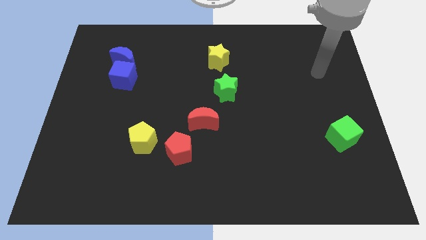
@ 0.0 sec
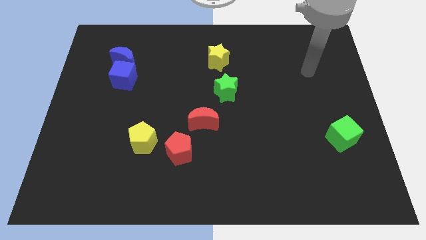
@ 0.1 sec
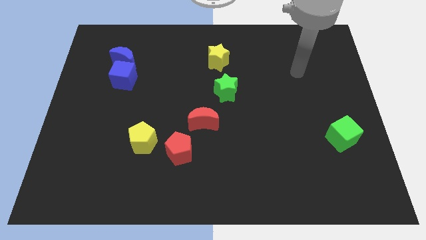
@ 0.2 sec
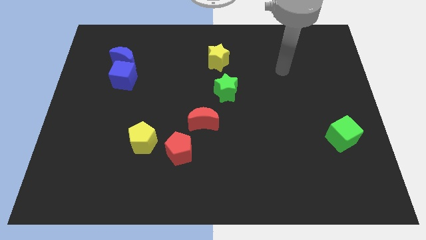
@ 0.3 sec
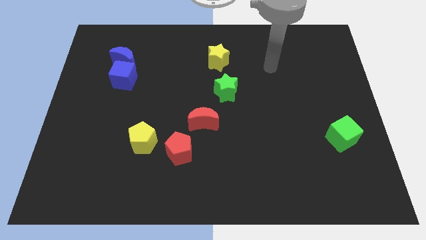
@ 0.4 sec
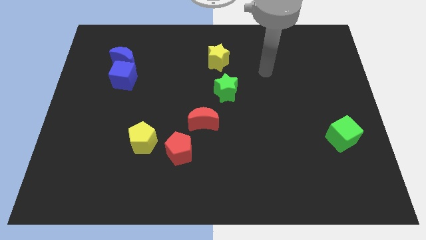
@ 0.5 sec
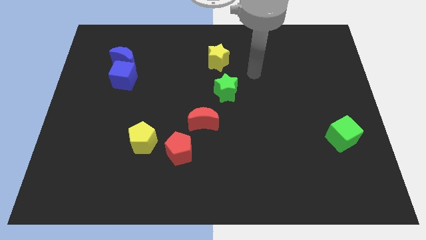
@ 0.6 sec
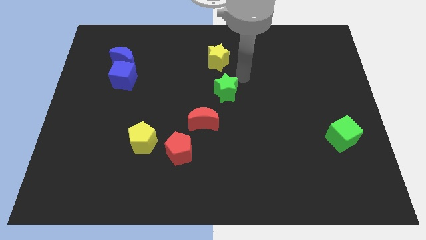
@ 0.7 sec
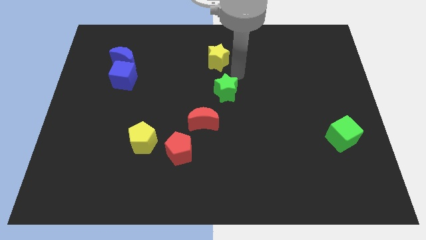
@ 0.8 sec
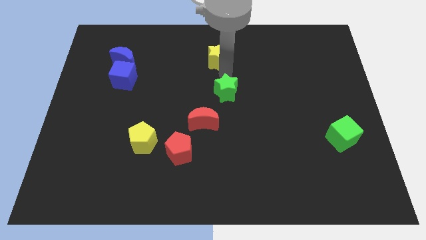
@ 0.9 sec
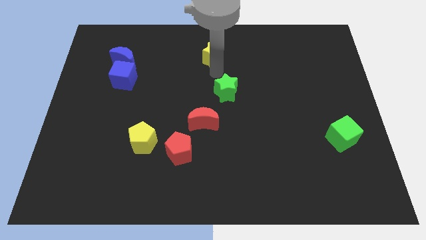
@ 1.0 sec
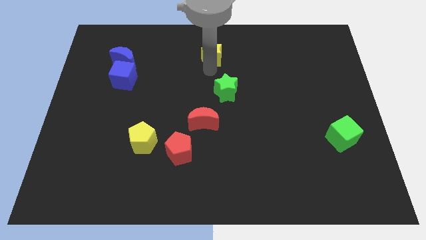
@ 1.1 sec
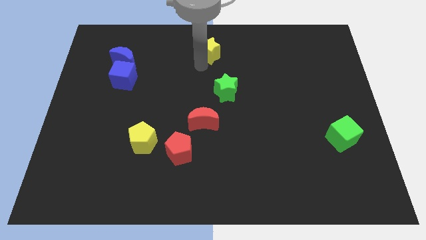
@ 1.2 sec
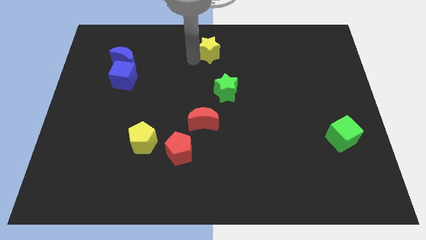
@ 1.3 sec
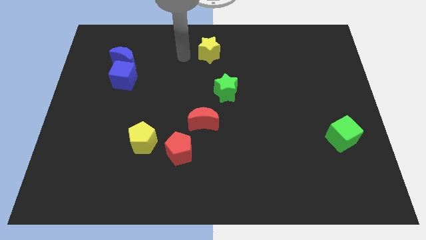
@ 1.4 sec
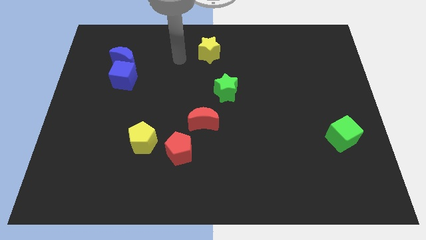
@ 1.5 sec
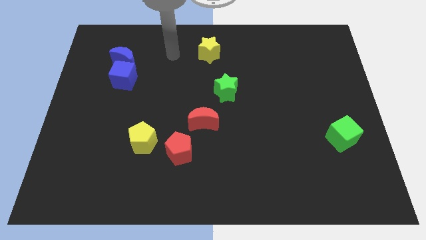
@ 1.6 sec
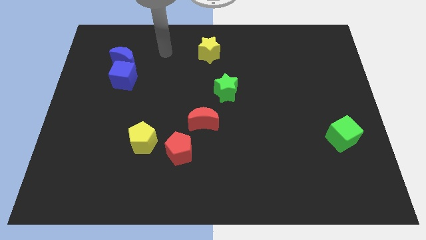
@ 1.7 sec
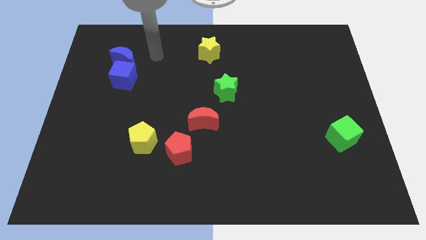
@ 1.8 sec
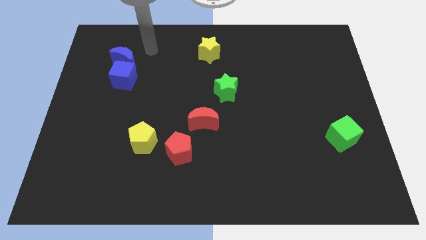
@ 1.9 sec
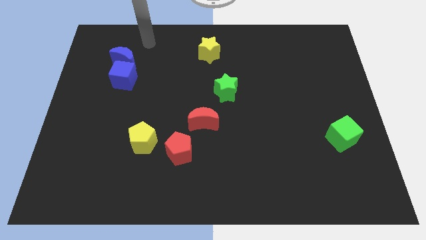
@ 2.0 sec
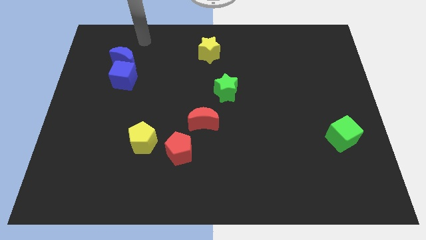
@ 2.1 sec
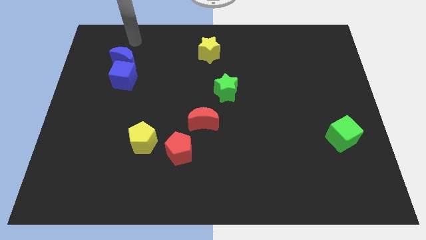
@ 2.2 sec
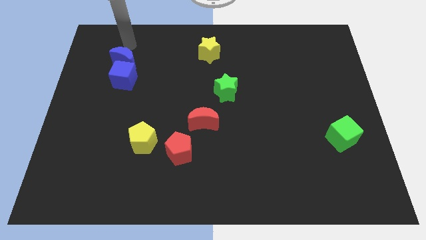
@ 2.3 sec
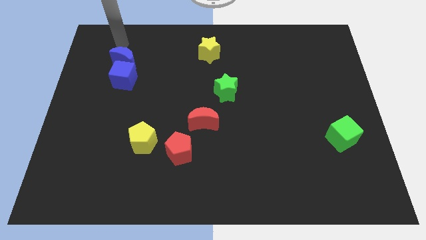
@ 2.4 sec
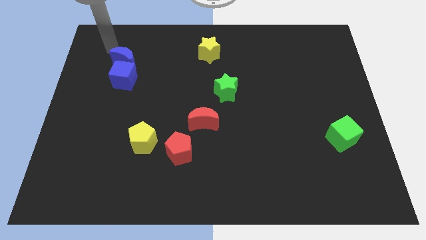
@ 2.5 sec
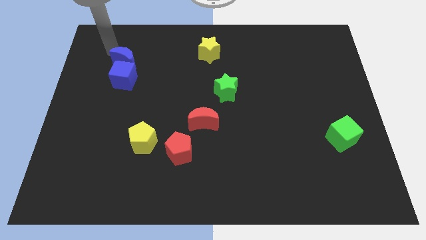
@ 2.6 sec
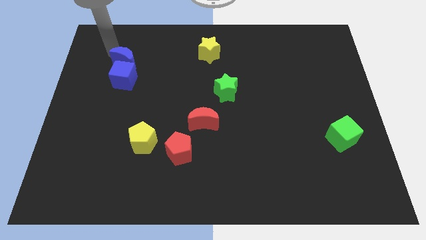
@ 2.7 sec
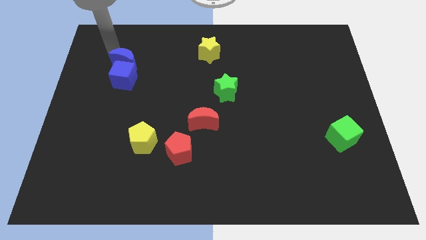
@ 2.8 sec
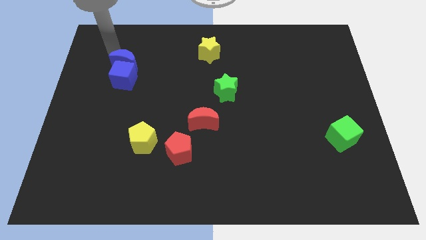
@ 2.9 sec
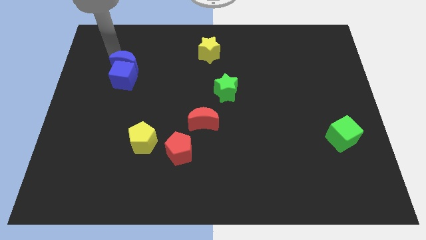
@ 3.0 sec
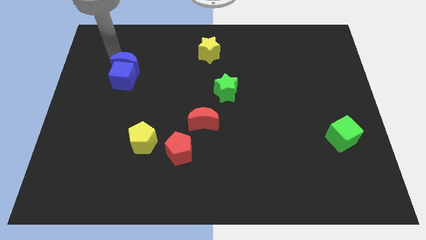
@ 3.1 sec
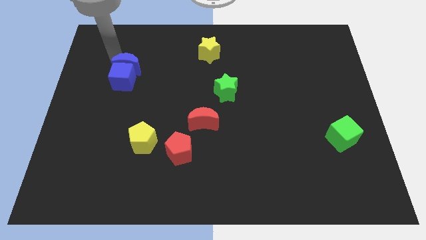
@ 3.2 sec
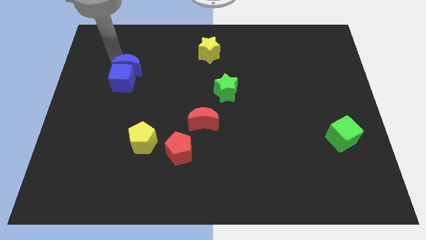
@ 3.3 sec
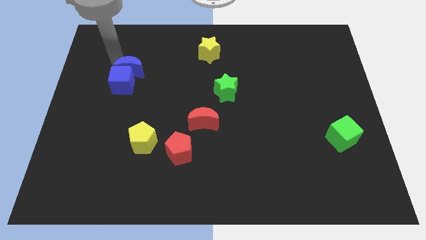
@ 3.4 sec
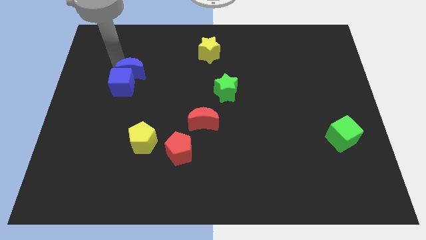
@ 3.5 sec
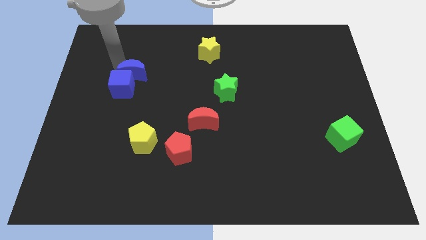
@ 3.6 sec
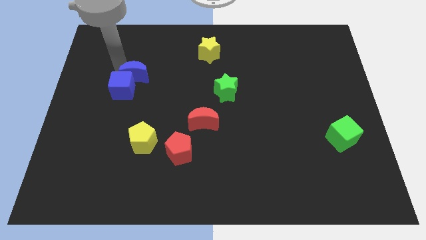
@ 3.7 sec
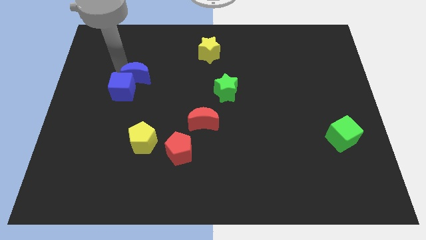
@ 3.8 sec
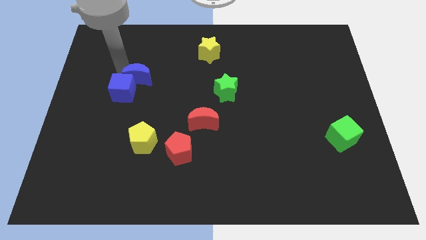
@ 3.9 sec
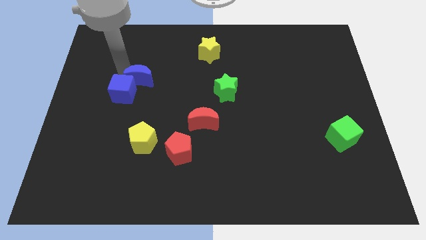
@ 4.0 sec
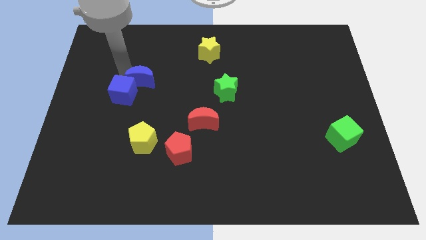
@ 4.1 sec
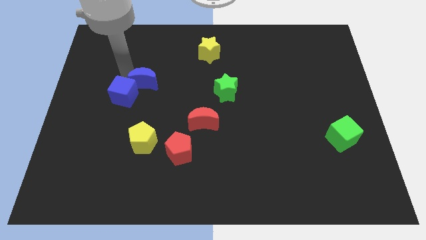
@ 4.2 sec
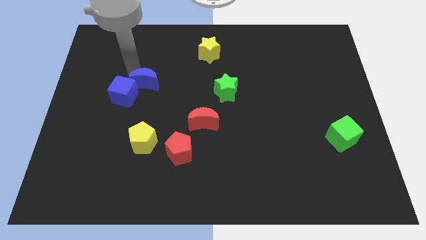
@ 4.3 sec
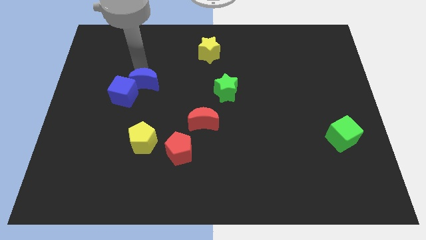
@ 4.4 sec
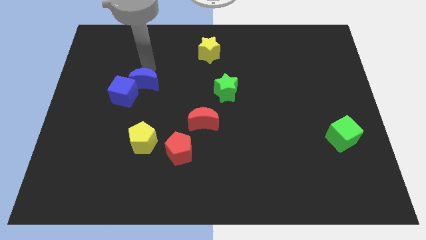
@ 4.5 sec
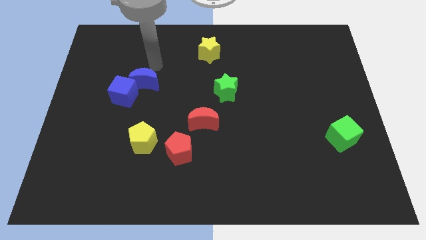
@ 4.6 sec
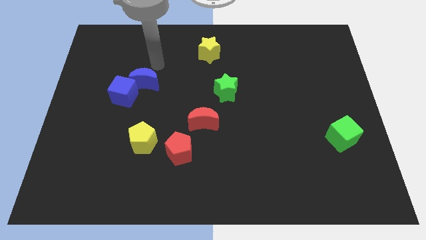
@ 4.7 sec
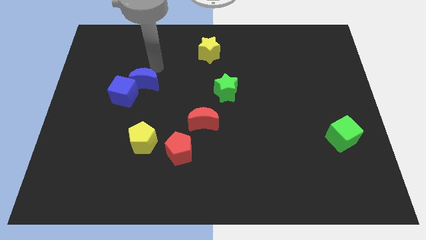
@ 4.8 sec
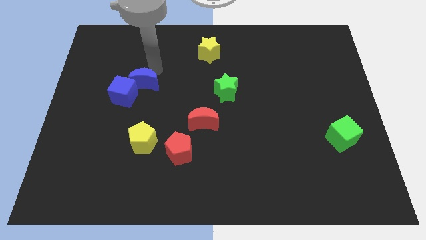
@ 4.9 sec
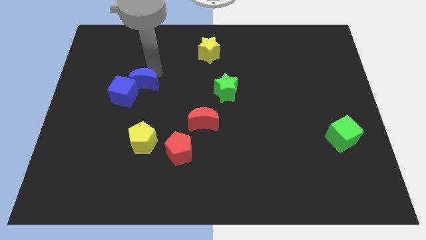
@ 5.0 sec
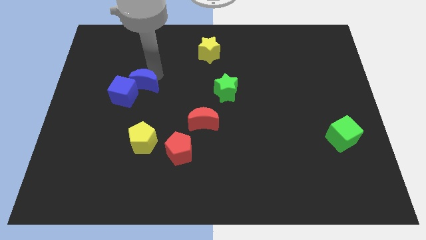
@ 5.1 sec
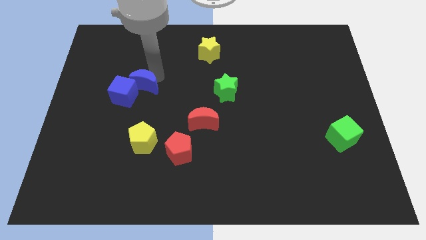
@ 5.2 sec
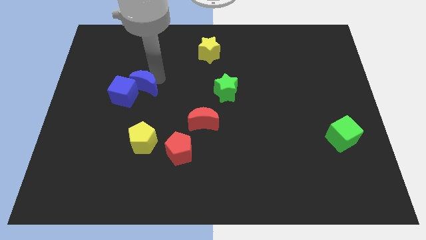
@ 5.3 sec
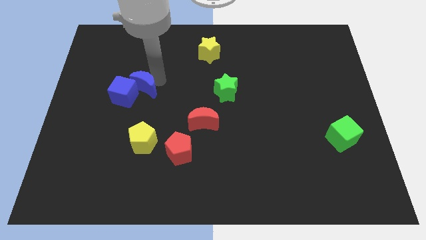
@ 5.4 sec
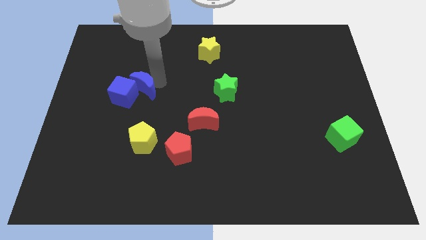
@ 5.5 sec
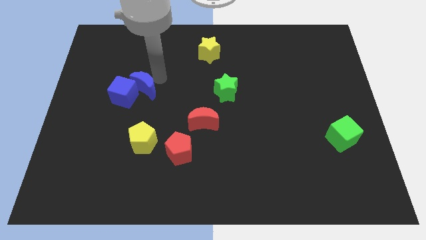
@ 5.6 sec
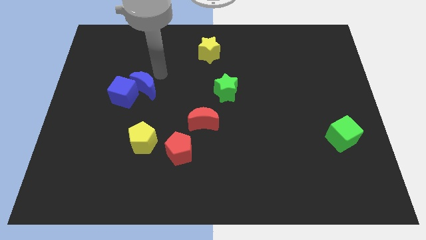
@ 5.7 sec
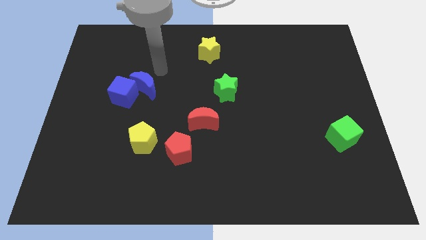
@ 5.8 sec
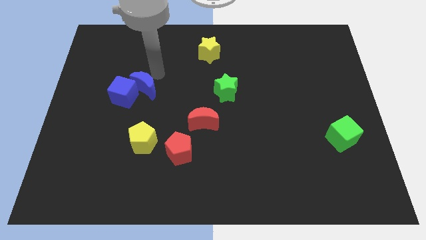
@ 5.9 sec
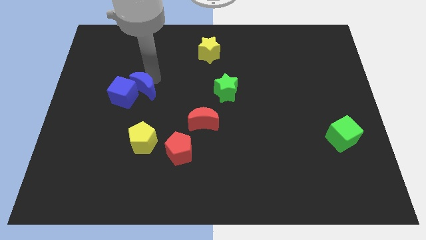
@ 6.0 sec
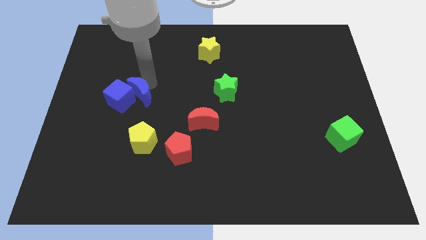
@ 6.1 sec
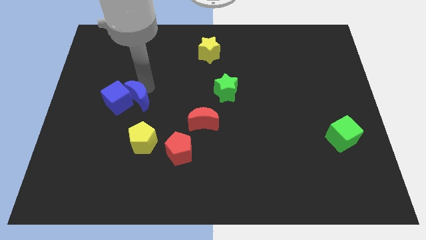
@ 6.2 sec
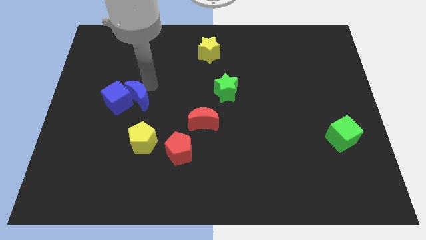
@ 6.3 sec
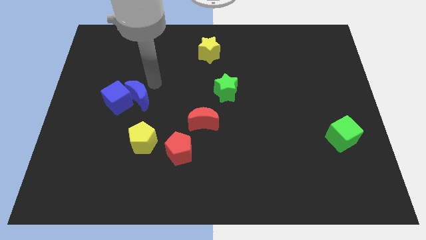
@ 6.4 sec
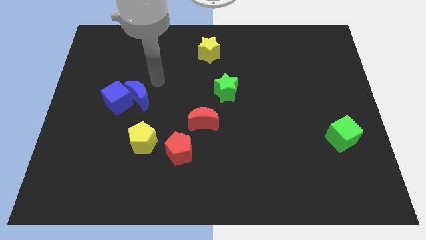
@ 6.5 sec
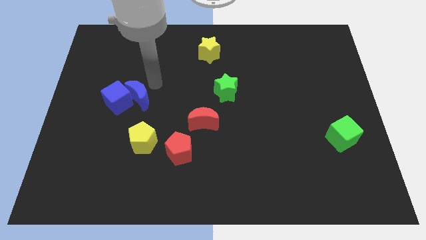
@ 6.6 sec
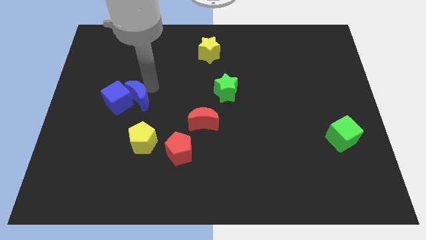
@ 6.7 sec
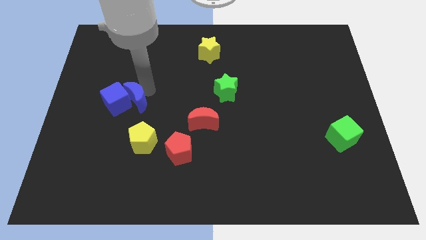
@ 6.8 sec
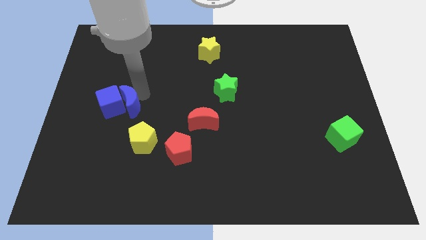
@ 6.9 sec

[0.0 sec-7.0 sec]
push the blue moon diagonally up and to the left of the yellow pentagon

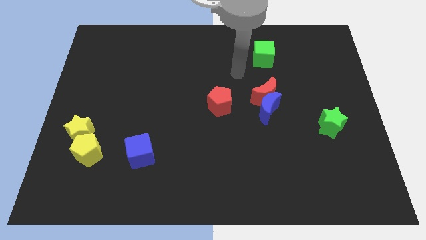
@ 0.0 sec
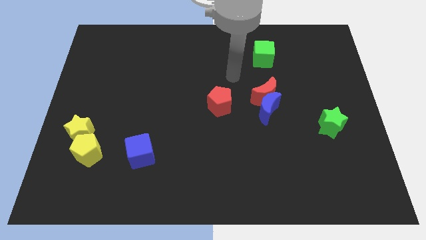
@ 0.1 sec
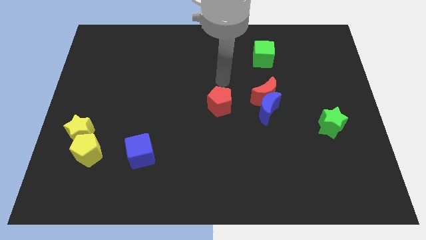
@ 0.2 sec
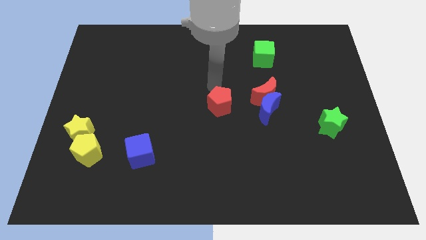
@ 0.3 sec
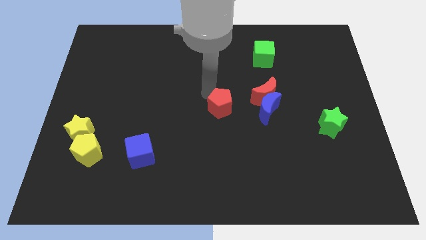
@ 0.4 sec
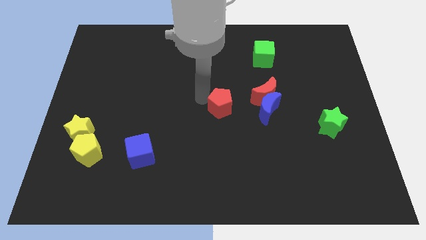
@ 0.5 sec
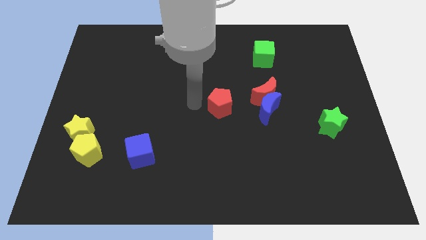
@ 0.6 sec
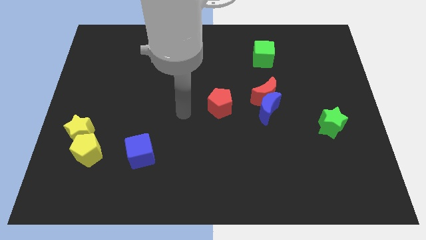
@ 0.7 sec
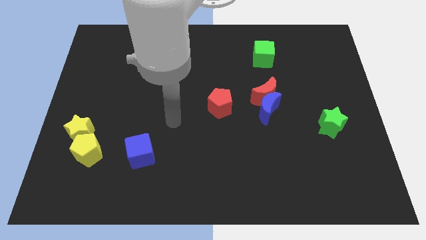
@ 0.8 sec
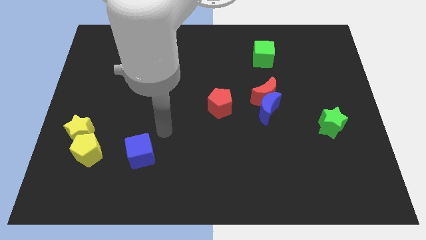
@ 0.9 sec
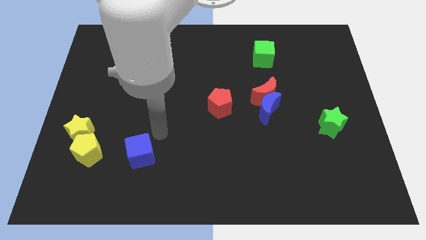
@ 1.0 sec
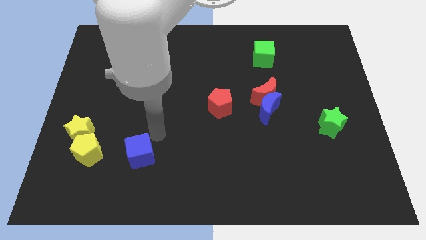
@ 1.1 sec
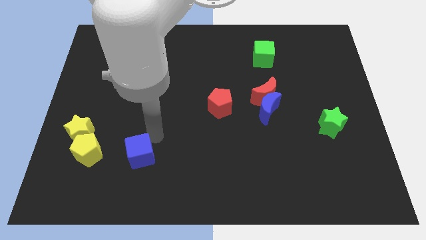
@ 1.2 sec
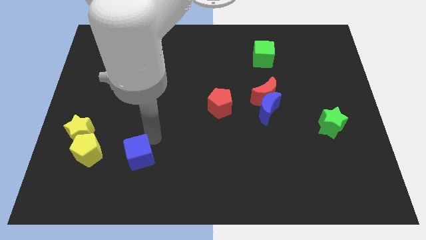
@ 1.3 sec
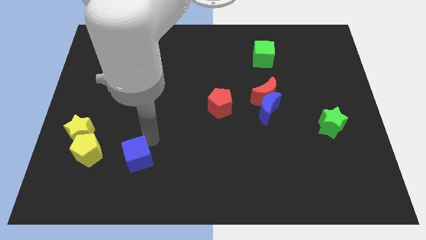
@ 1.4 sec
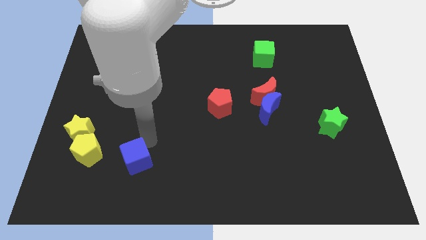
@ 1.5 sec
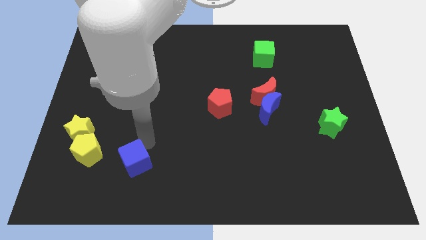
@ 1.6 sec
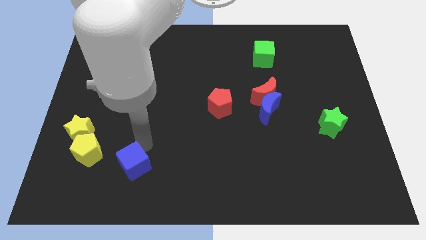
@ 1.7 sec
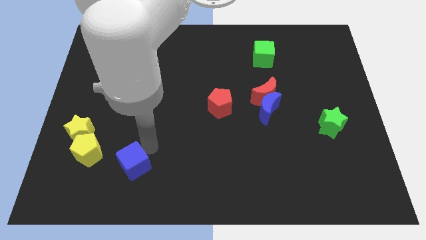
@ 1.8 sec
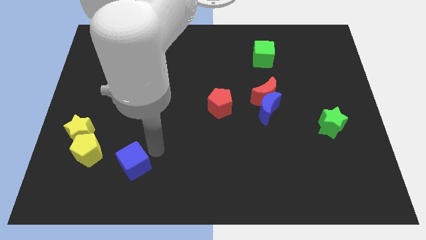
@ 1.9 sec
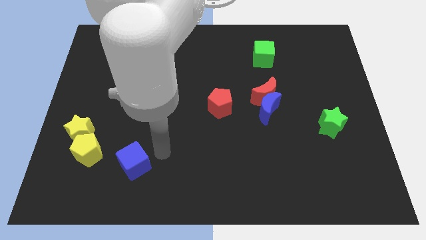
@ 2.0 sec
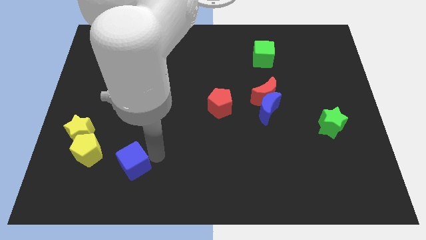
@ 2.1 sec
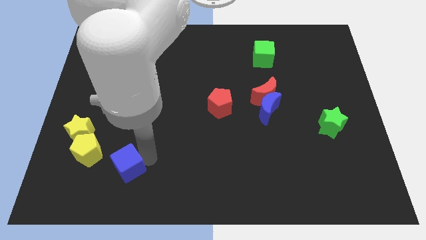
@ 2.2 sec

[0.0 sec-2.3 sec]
put the blue cube diagonally down and to the right of the yellow pentagon
